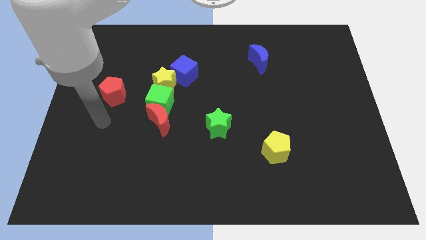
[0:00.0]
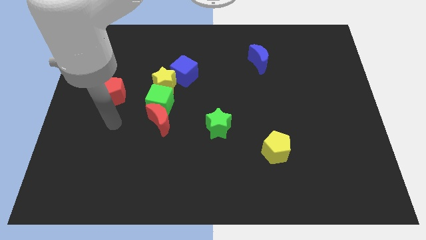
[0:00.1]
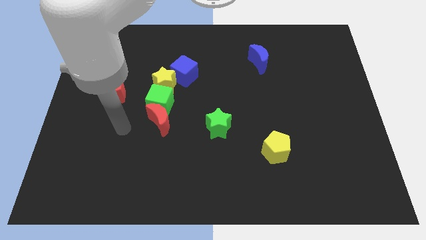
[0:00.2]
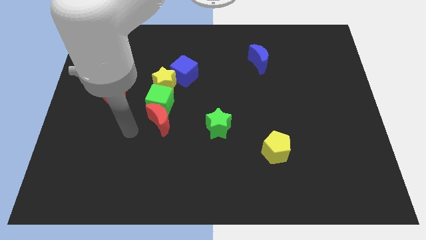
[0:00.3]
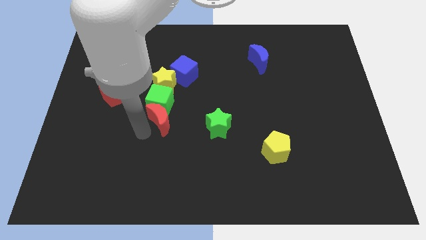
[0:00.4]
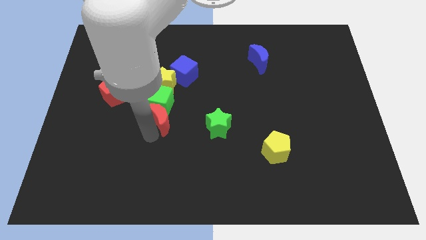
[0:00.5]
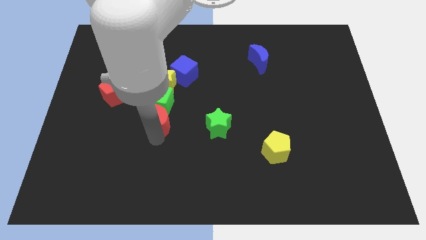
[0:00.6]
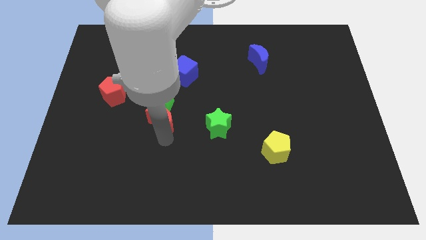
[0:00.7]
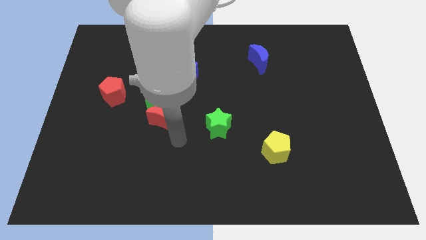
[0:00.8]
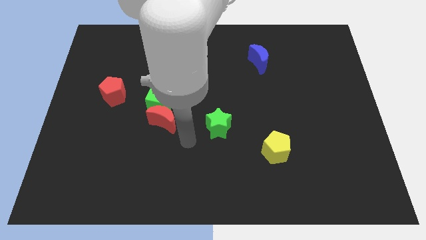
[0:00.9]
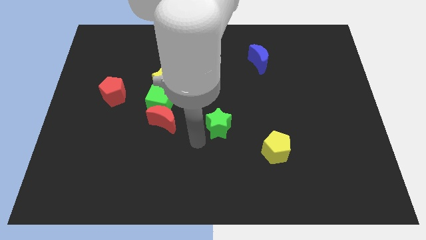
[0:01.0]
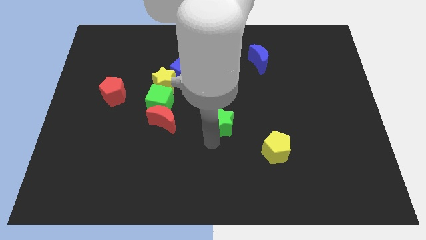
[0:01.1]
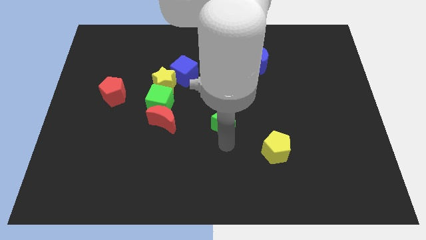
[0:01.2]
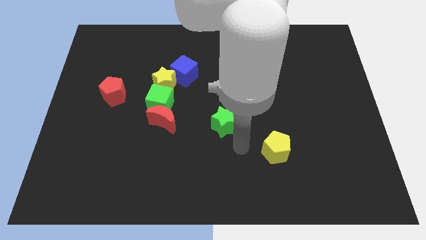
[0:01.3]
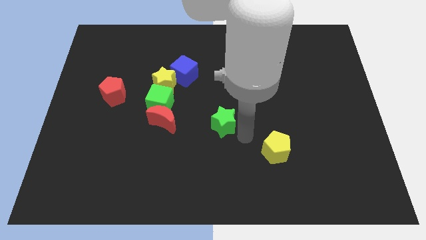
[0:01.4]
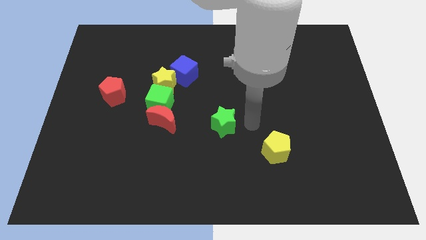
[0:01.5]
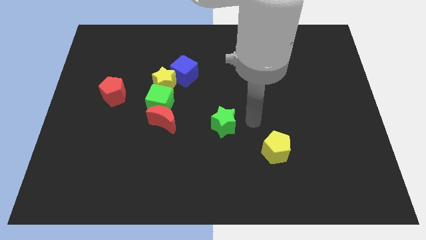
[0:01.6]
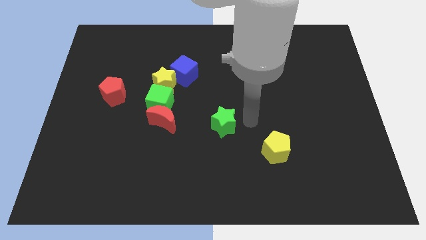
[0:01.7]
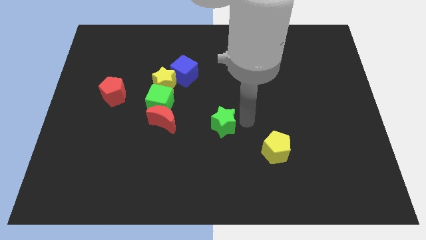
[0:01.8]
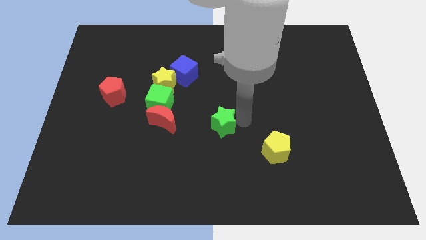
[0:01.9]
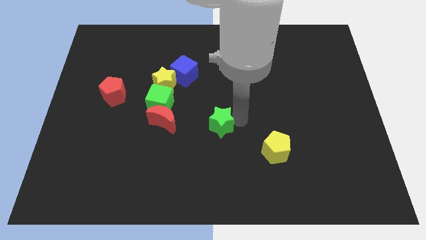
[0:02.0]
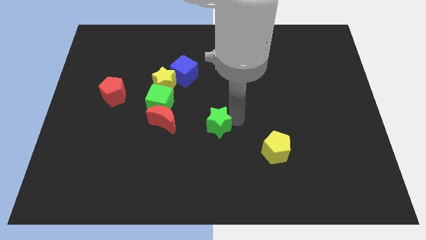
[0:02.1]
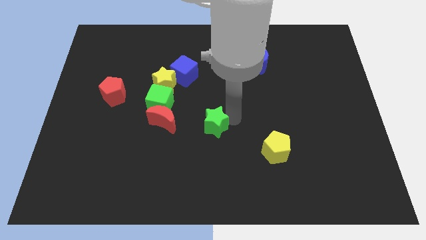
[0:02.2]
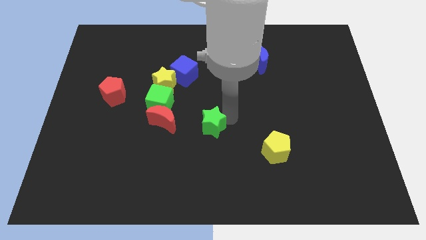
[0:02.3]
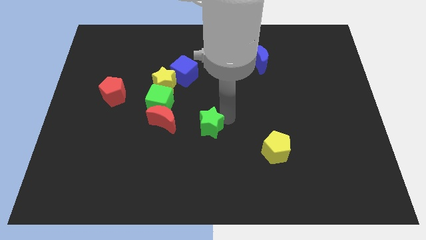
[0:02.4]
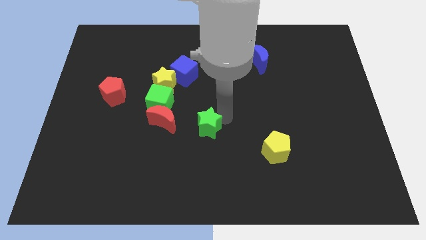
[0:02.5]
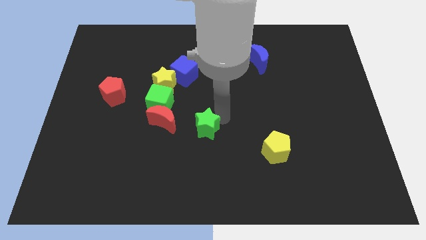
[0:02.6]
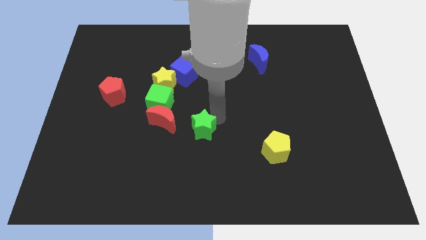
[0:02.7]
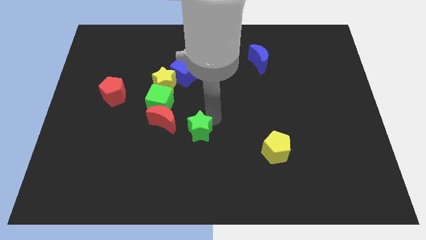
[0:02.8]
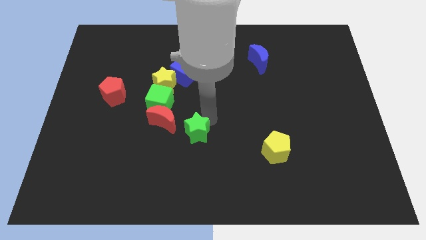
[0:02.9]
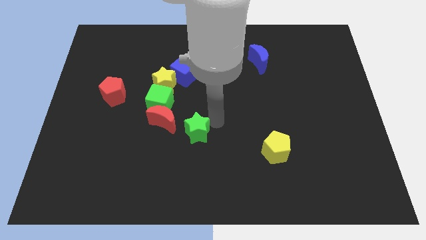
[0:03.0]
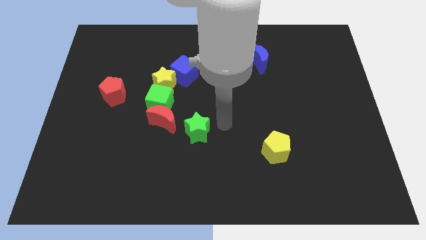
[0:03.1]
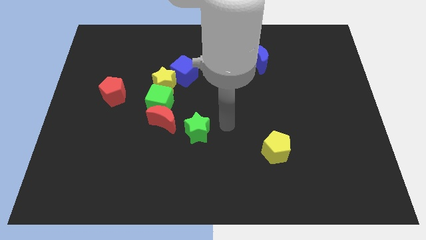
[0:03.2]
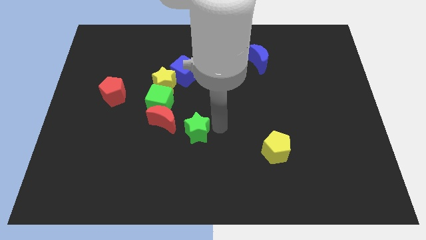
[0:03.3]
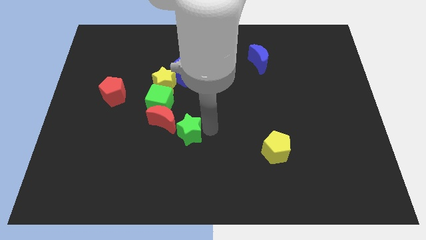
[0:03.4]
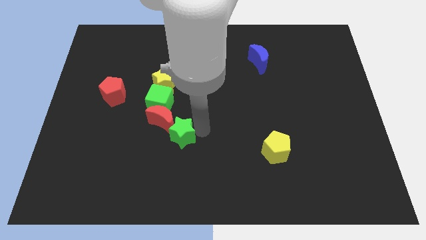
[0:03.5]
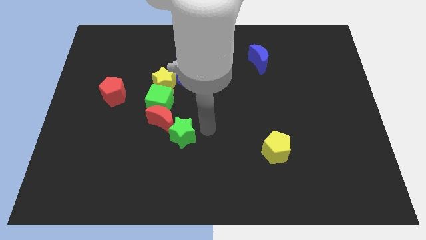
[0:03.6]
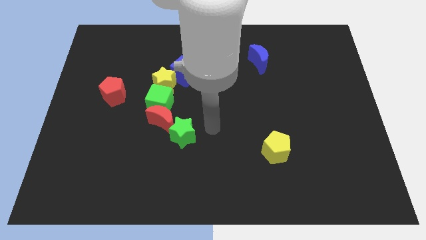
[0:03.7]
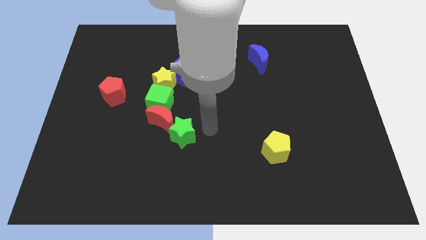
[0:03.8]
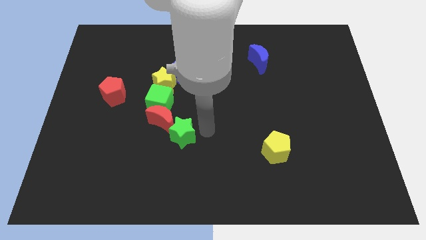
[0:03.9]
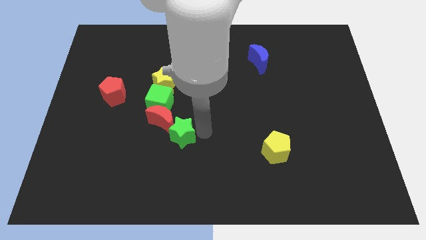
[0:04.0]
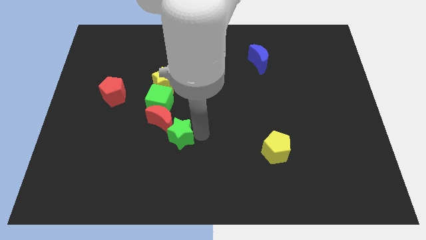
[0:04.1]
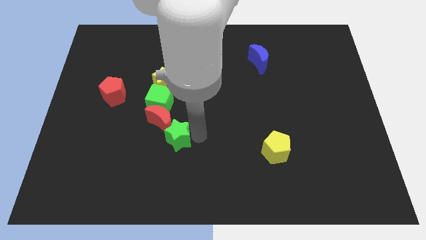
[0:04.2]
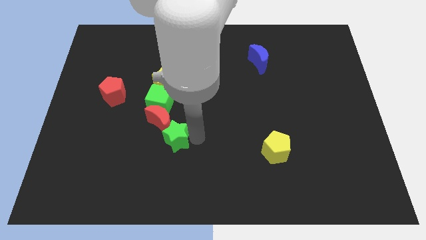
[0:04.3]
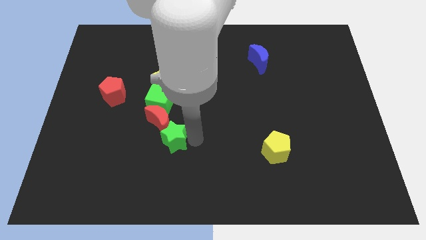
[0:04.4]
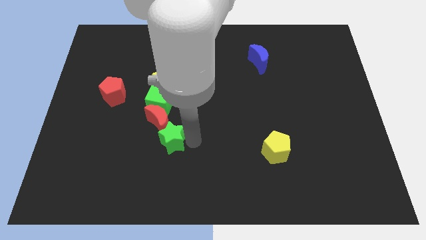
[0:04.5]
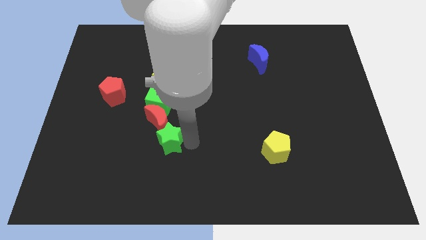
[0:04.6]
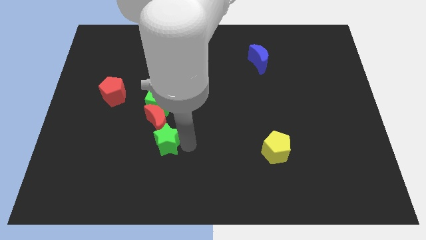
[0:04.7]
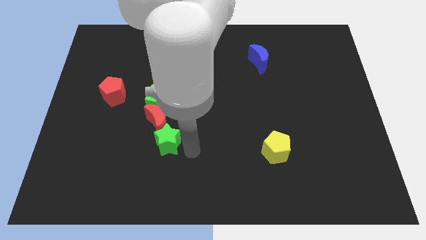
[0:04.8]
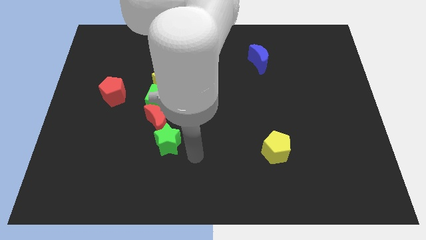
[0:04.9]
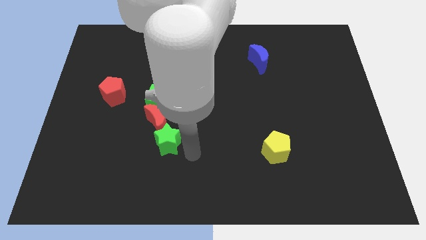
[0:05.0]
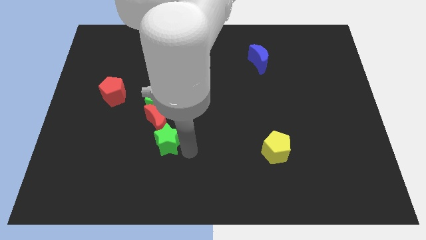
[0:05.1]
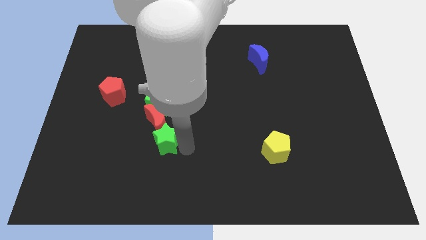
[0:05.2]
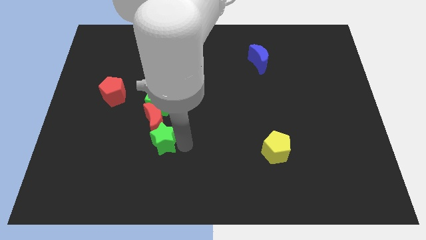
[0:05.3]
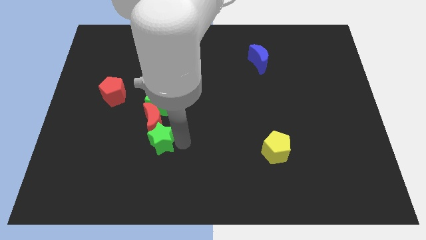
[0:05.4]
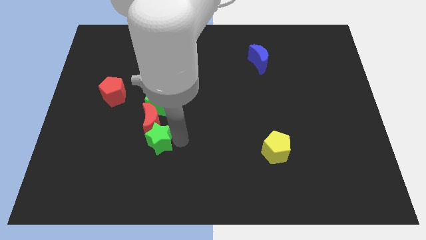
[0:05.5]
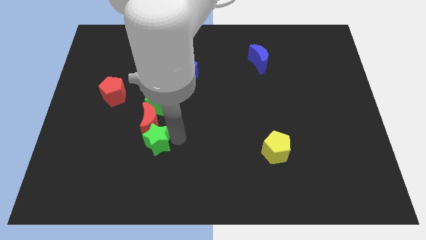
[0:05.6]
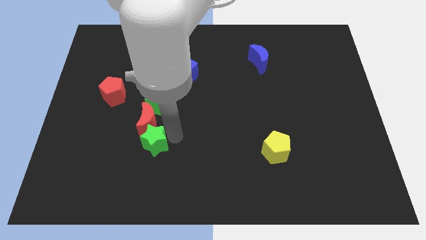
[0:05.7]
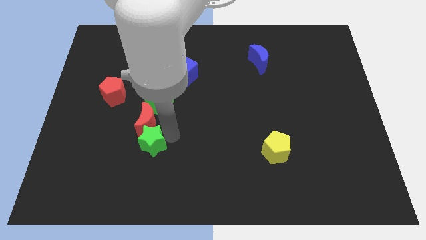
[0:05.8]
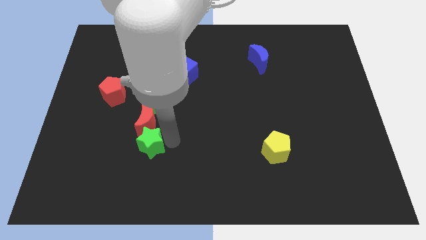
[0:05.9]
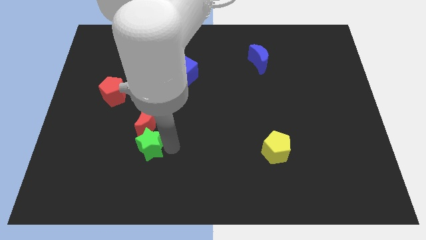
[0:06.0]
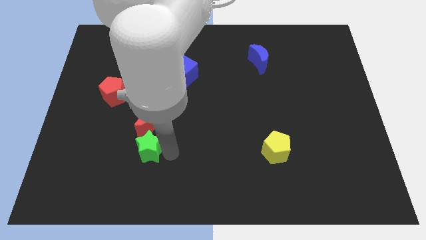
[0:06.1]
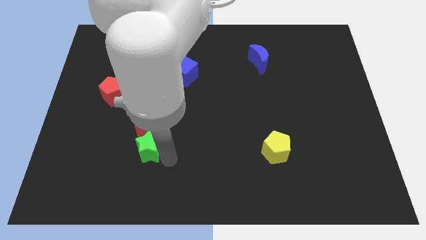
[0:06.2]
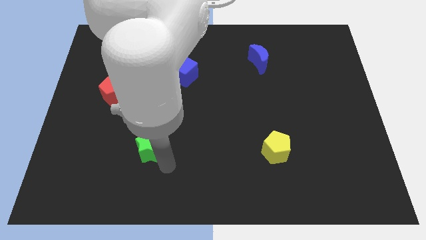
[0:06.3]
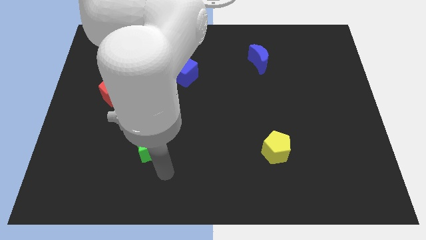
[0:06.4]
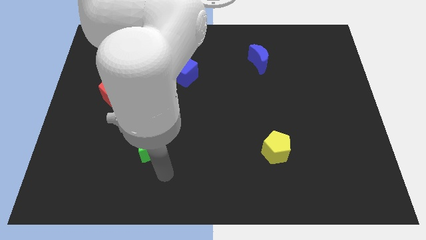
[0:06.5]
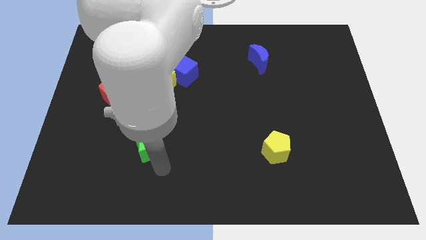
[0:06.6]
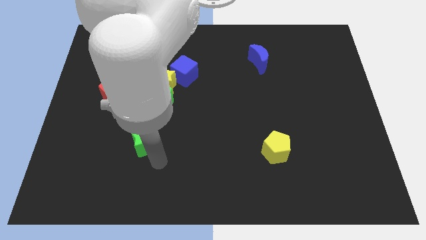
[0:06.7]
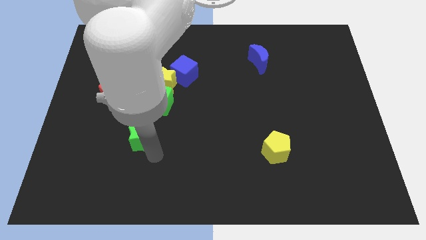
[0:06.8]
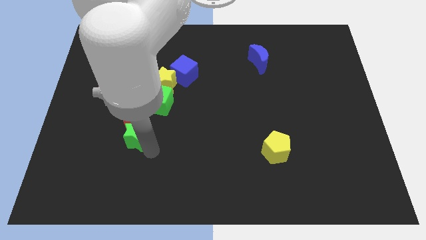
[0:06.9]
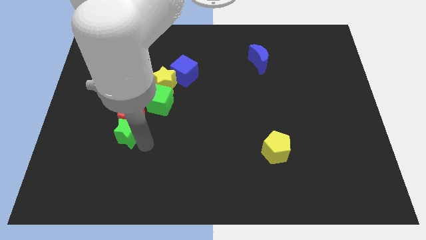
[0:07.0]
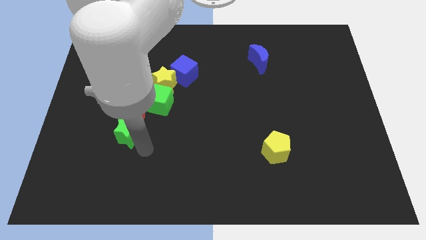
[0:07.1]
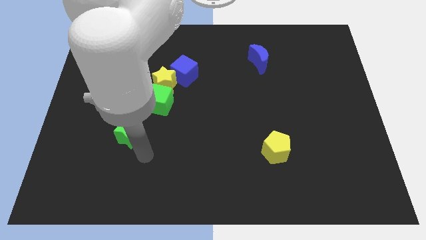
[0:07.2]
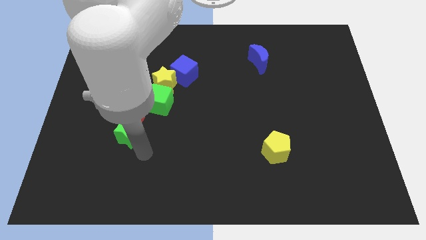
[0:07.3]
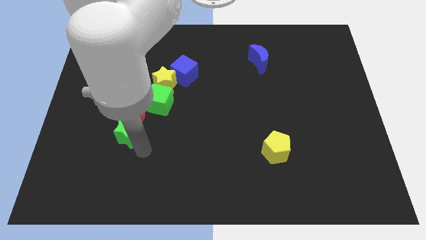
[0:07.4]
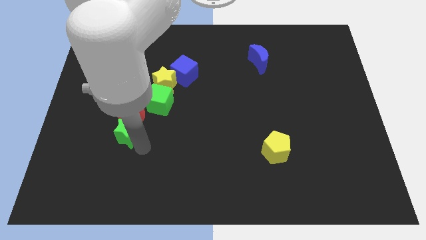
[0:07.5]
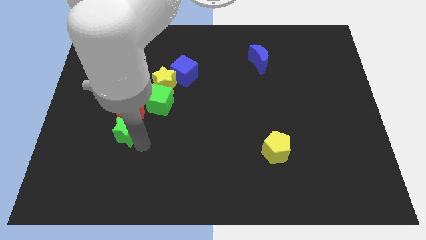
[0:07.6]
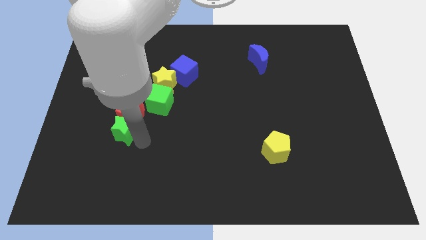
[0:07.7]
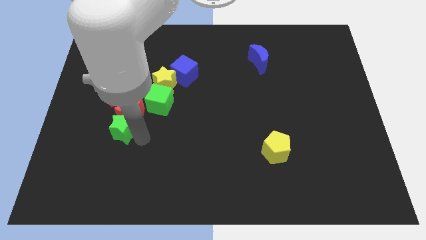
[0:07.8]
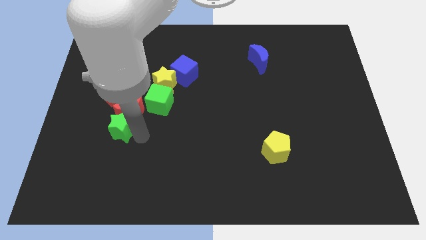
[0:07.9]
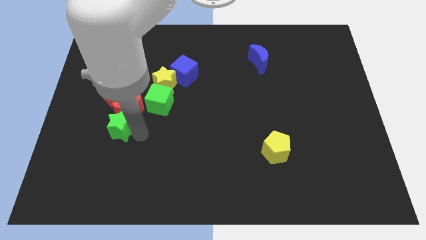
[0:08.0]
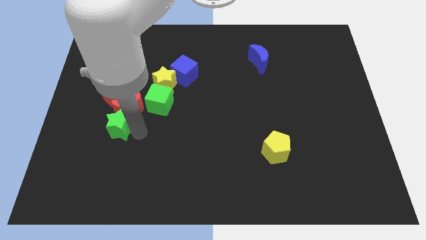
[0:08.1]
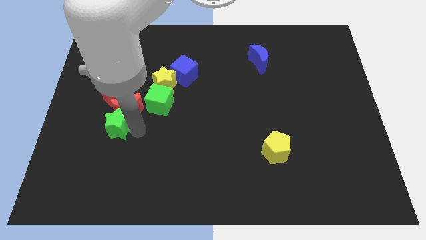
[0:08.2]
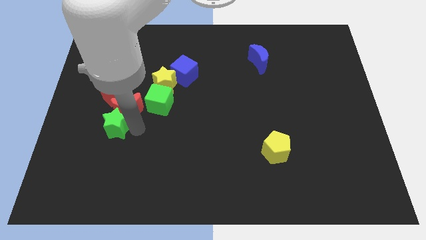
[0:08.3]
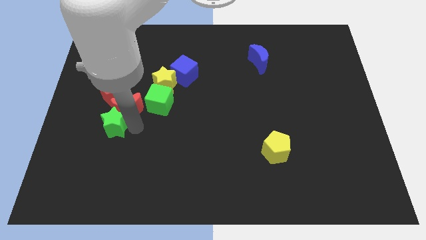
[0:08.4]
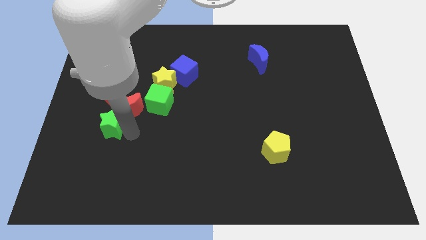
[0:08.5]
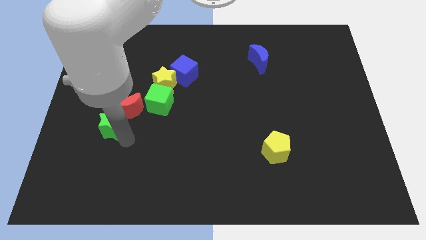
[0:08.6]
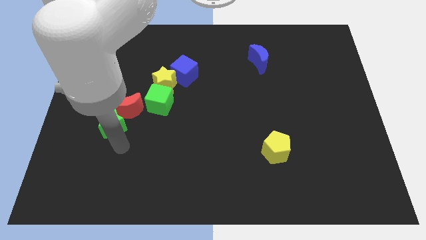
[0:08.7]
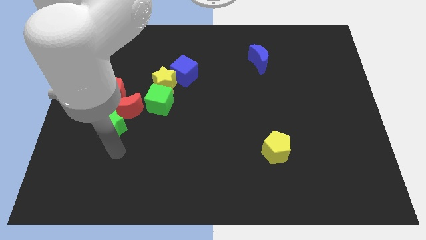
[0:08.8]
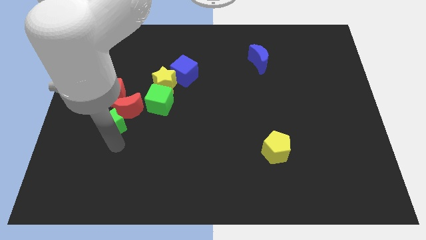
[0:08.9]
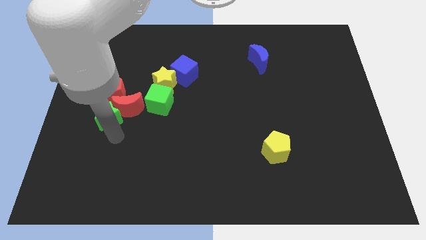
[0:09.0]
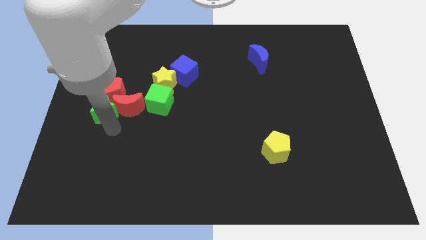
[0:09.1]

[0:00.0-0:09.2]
push the green star next to the red pentagon
